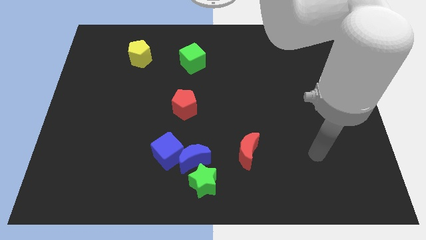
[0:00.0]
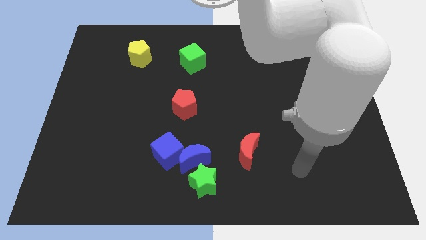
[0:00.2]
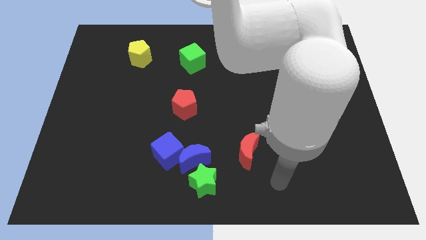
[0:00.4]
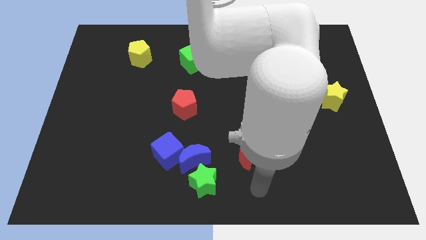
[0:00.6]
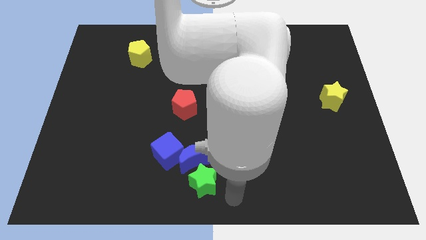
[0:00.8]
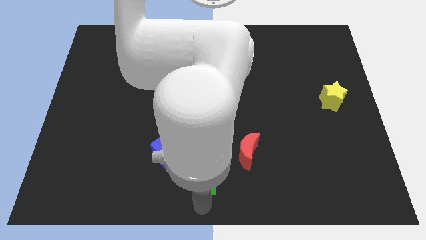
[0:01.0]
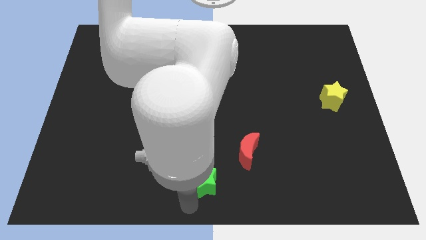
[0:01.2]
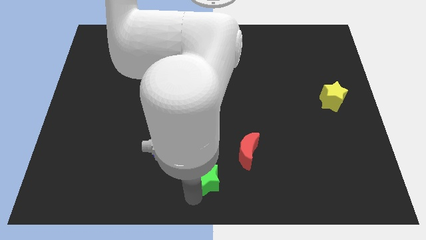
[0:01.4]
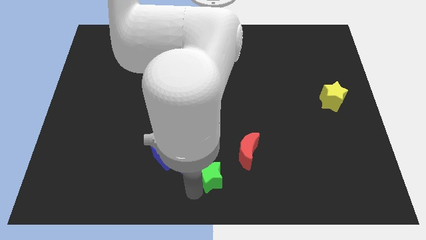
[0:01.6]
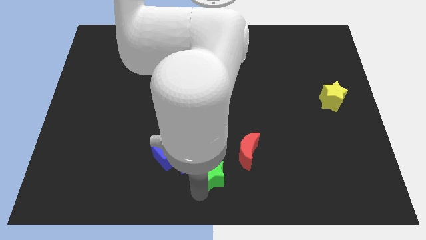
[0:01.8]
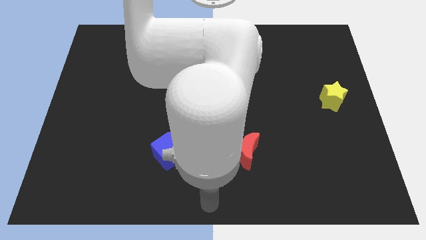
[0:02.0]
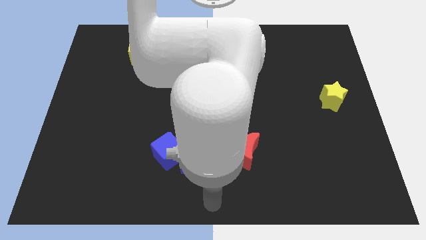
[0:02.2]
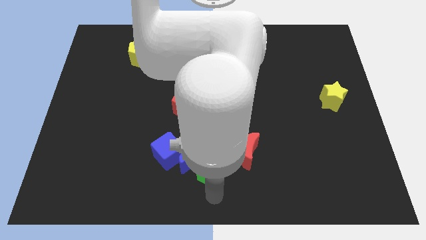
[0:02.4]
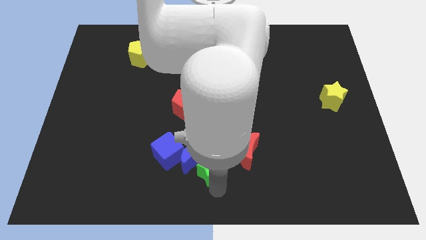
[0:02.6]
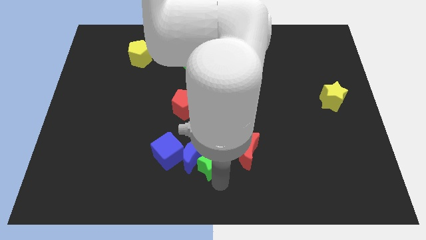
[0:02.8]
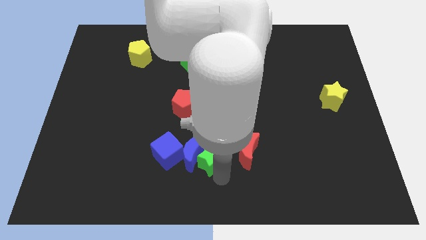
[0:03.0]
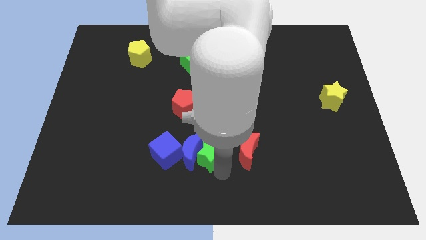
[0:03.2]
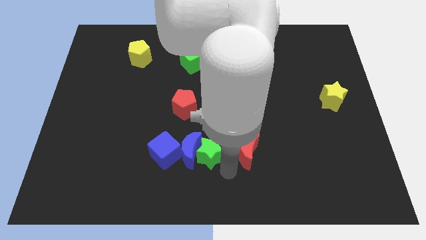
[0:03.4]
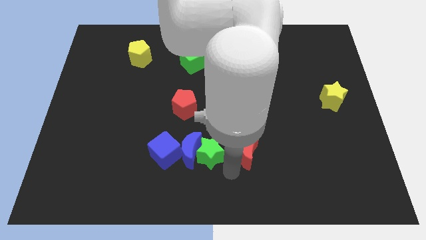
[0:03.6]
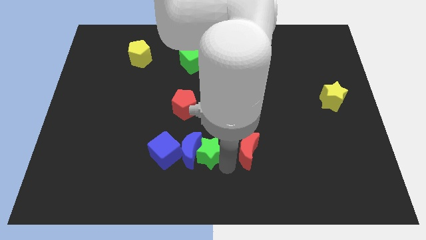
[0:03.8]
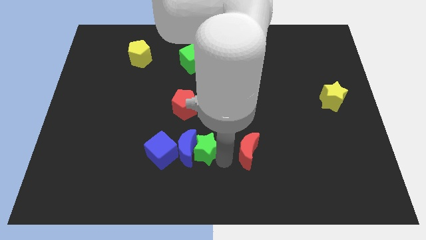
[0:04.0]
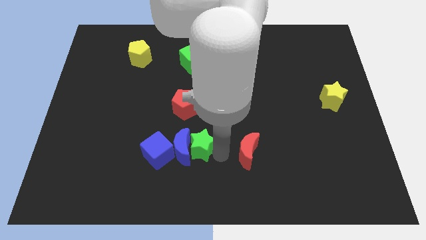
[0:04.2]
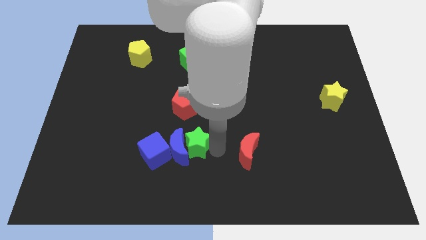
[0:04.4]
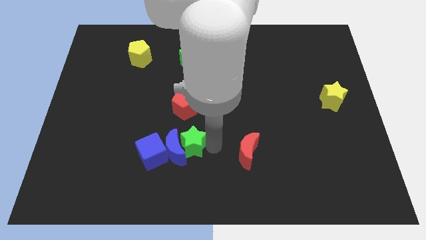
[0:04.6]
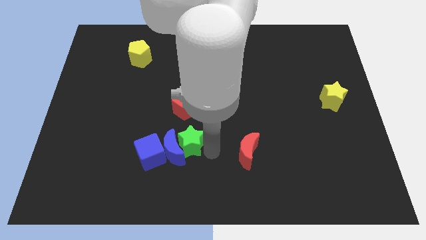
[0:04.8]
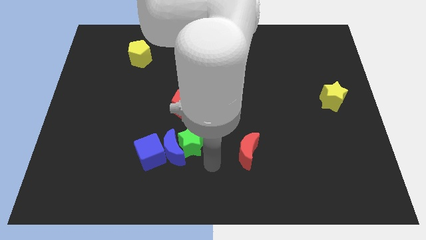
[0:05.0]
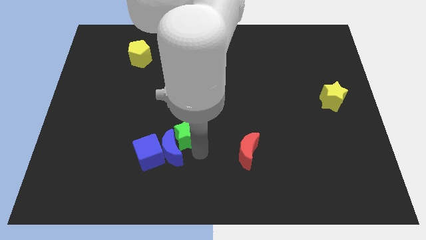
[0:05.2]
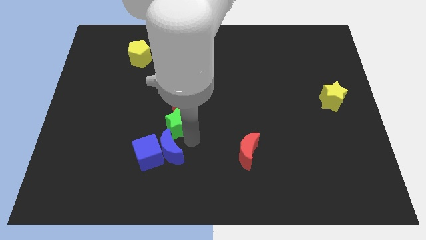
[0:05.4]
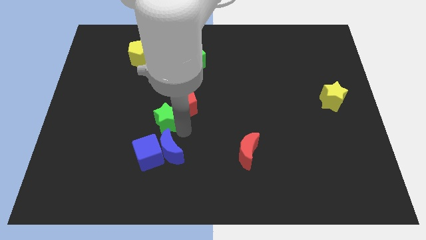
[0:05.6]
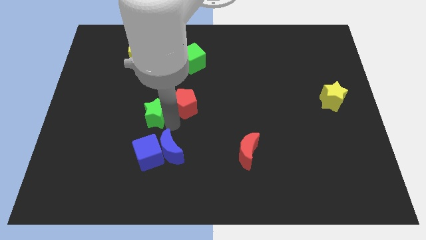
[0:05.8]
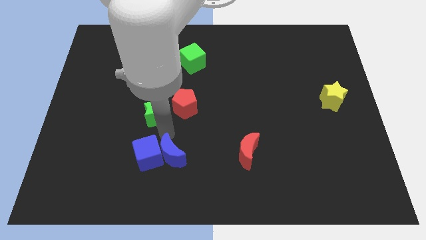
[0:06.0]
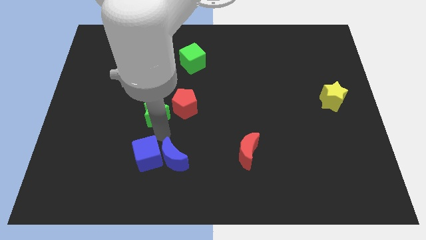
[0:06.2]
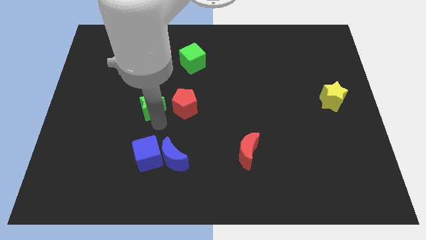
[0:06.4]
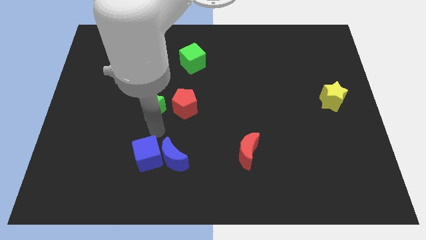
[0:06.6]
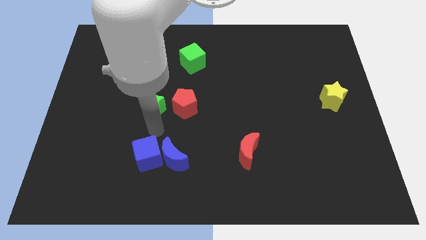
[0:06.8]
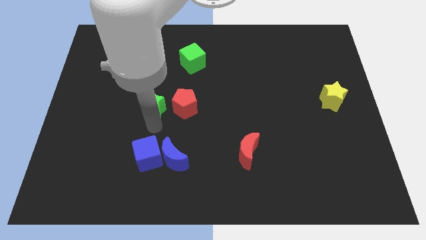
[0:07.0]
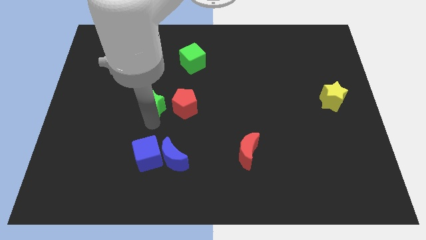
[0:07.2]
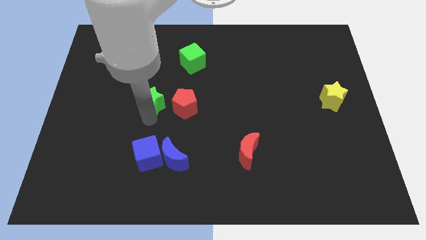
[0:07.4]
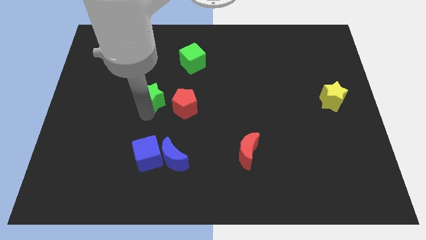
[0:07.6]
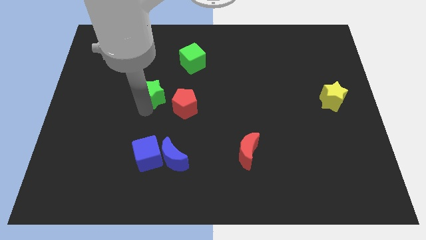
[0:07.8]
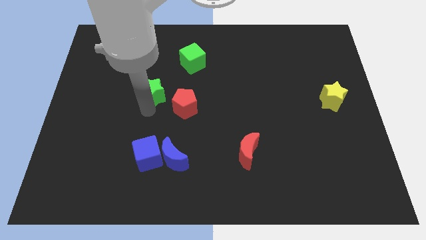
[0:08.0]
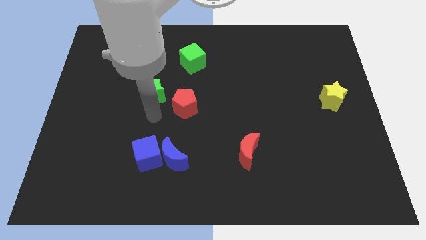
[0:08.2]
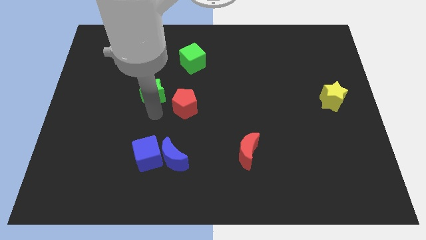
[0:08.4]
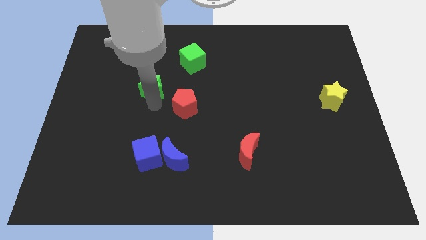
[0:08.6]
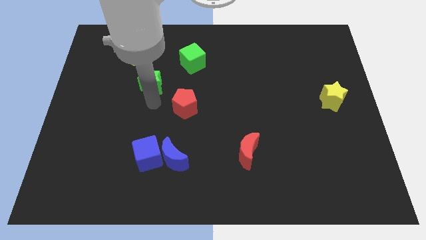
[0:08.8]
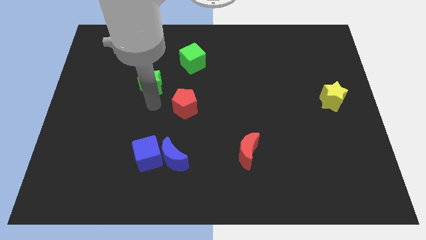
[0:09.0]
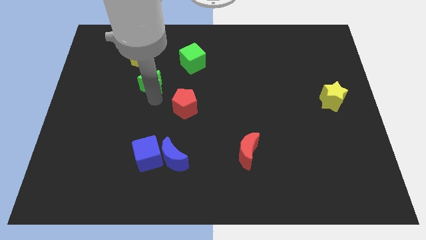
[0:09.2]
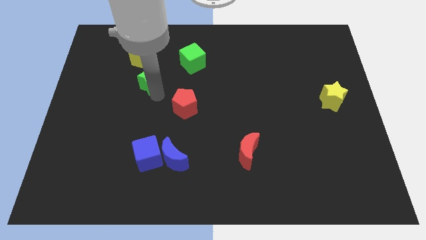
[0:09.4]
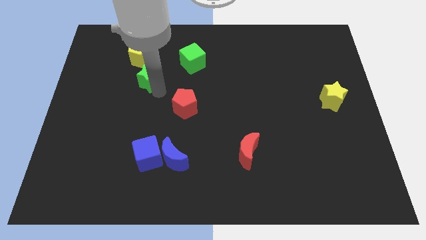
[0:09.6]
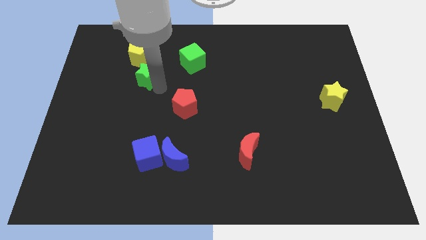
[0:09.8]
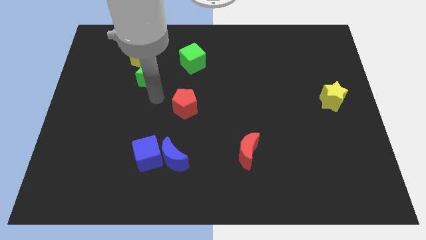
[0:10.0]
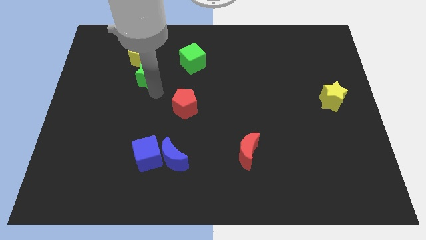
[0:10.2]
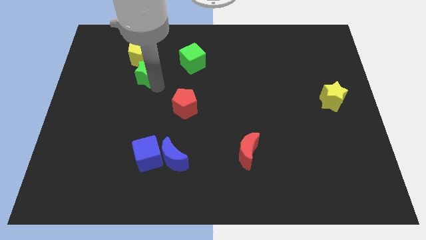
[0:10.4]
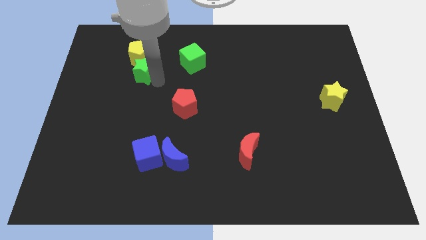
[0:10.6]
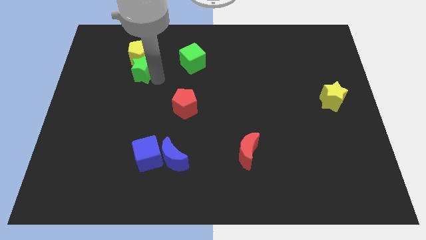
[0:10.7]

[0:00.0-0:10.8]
move the green star to the yellow pentagon

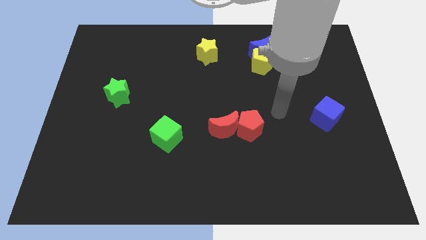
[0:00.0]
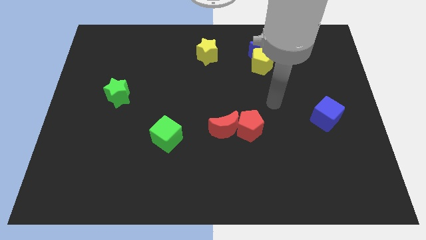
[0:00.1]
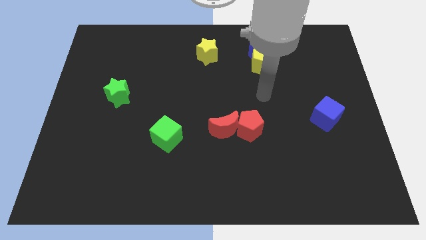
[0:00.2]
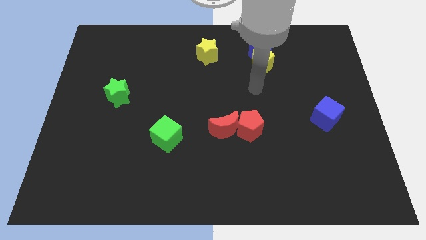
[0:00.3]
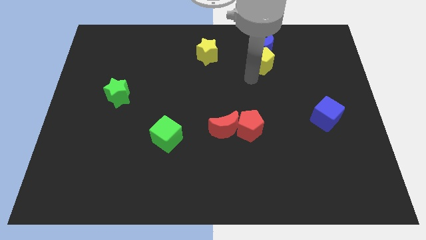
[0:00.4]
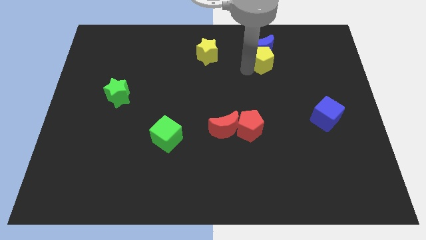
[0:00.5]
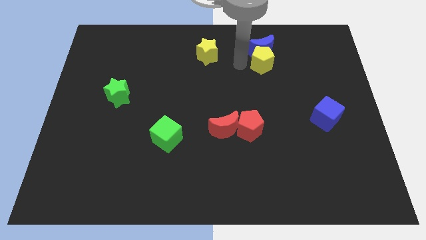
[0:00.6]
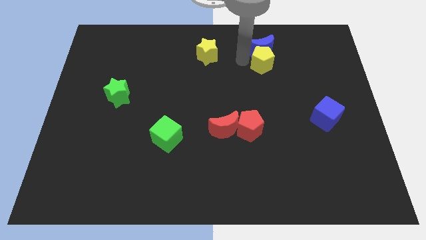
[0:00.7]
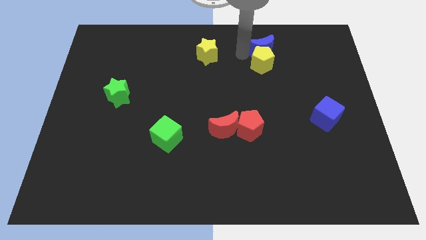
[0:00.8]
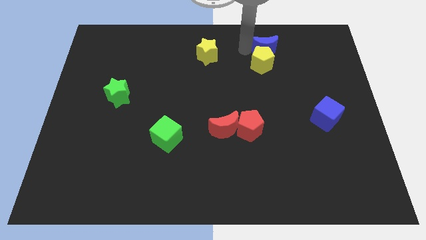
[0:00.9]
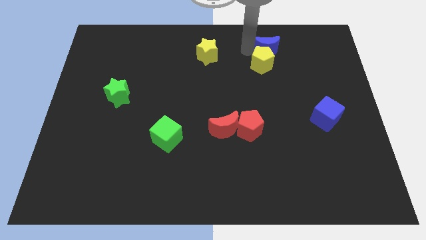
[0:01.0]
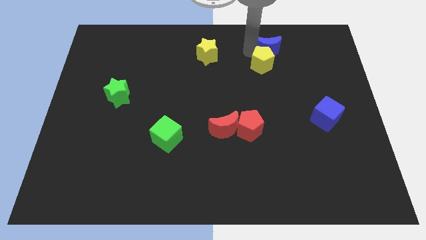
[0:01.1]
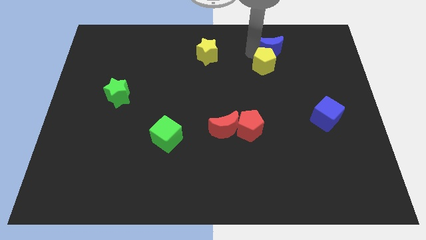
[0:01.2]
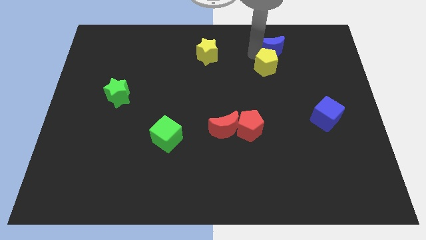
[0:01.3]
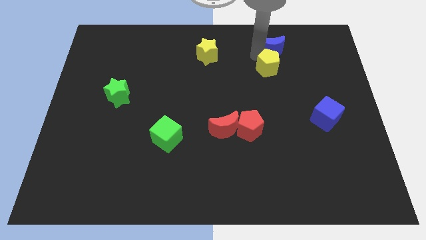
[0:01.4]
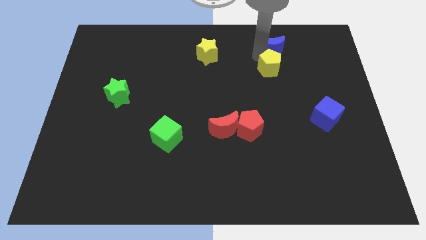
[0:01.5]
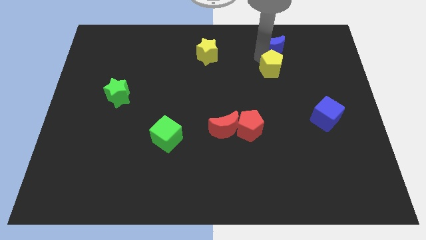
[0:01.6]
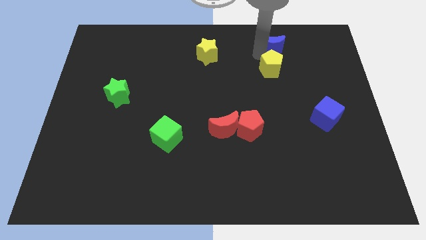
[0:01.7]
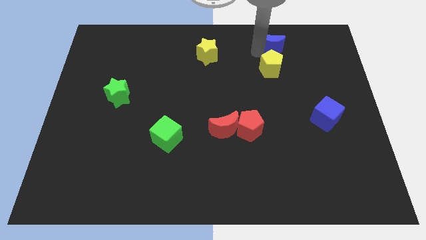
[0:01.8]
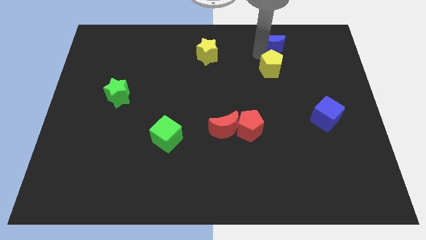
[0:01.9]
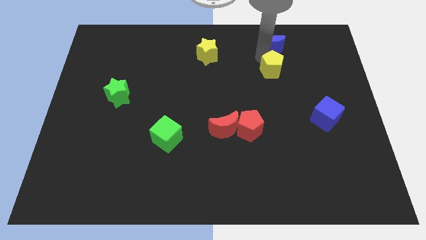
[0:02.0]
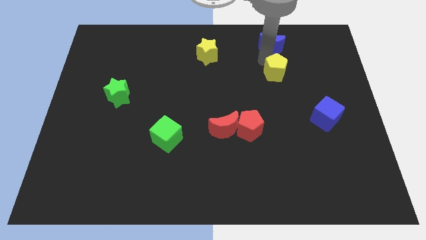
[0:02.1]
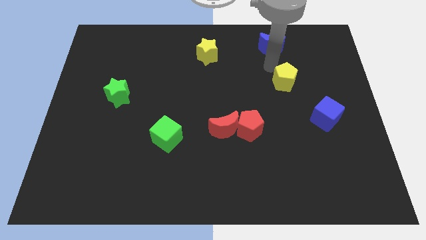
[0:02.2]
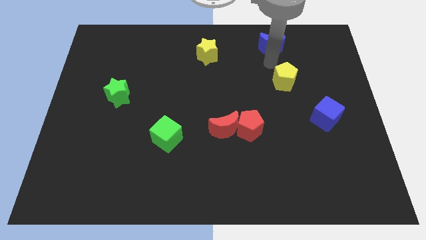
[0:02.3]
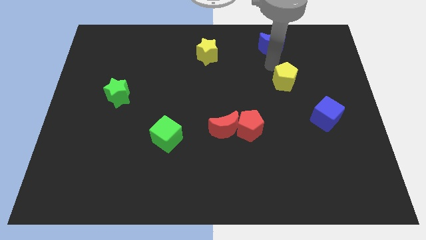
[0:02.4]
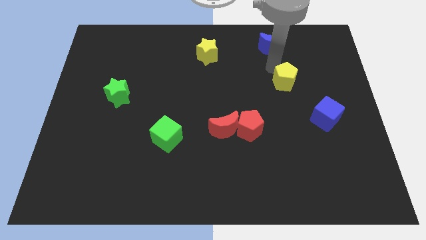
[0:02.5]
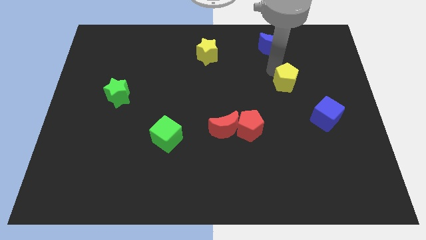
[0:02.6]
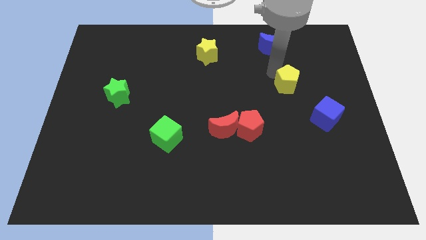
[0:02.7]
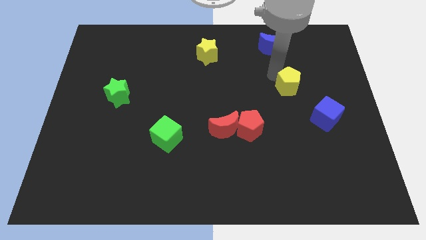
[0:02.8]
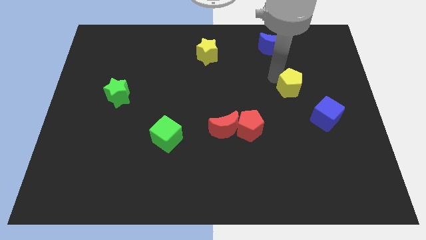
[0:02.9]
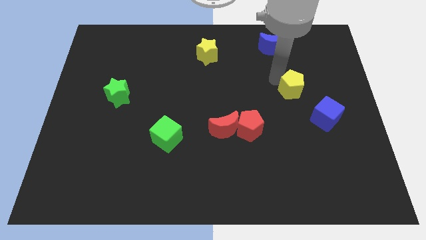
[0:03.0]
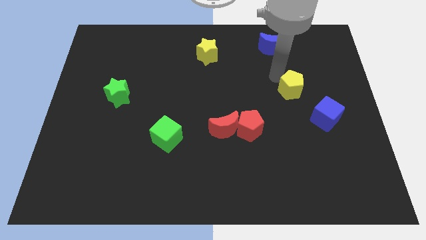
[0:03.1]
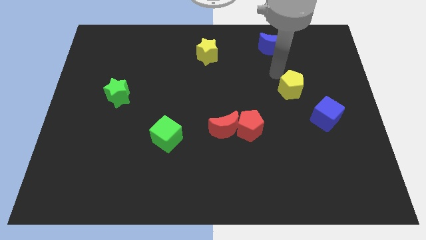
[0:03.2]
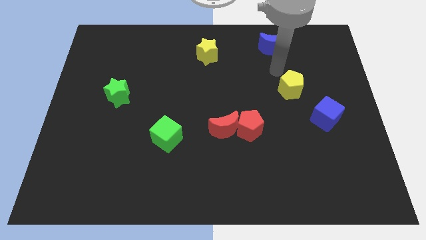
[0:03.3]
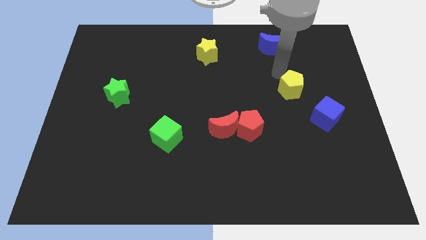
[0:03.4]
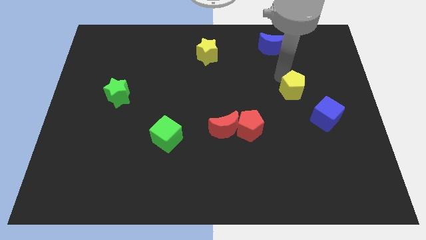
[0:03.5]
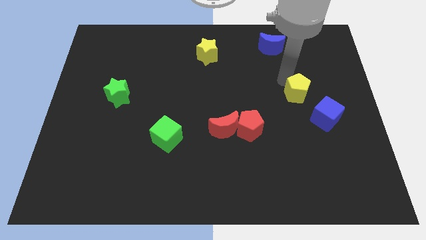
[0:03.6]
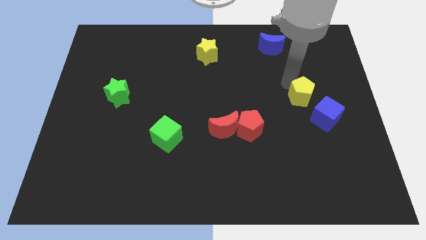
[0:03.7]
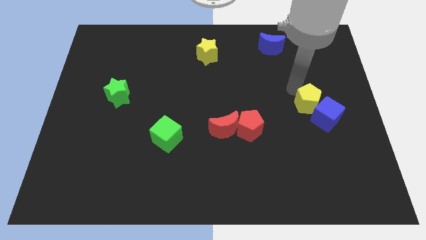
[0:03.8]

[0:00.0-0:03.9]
slide the yellow pentagon to the blue cube
